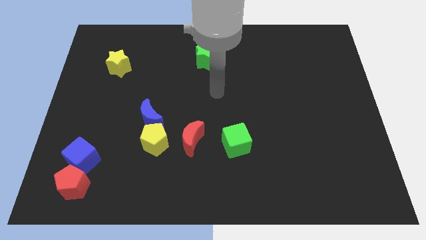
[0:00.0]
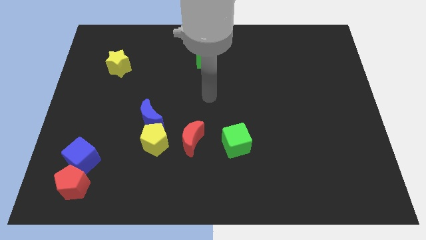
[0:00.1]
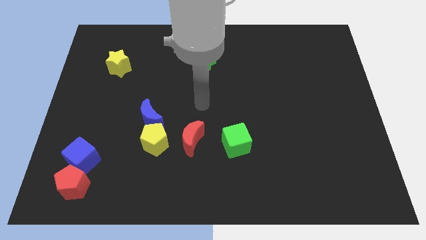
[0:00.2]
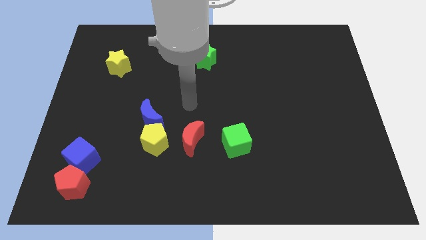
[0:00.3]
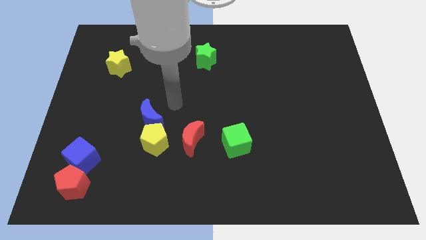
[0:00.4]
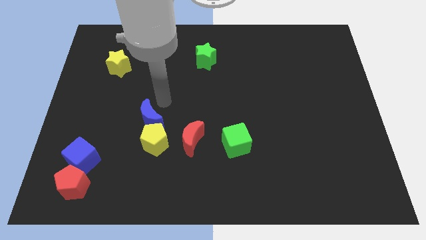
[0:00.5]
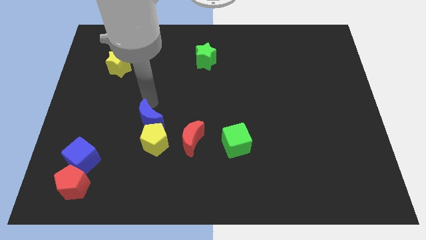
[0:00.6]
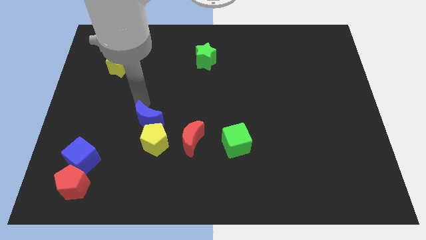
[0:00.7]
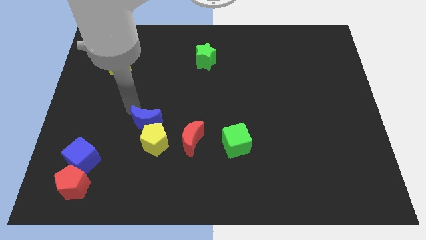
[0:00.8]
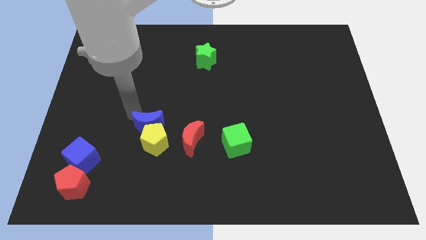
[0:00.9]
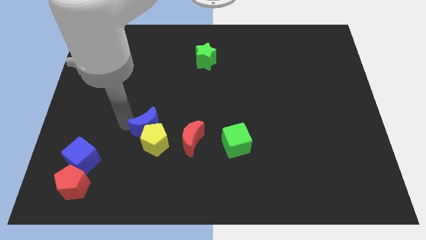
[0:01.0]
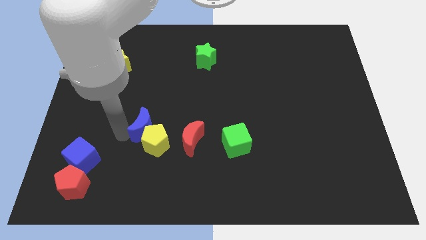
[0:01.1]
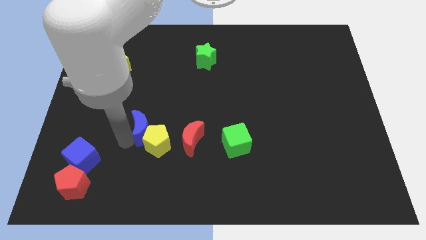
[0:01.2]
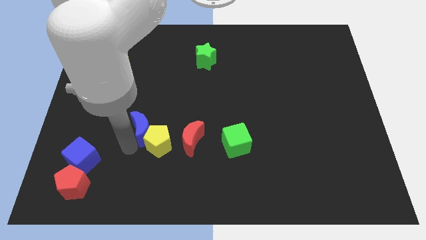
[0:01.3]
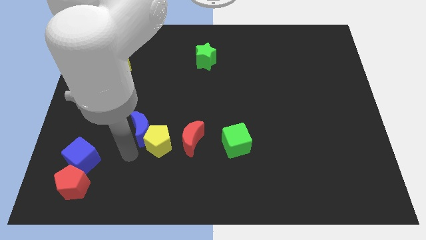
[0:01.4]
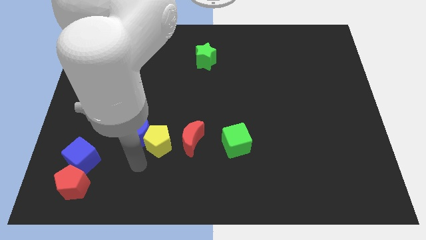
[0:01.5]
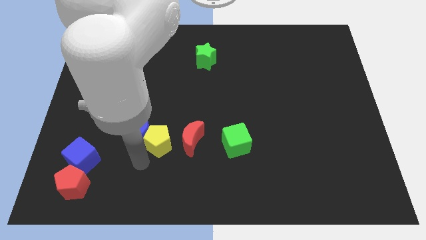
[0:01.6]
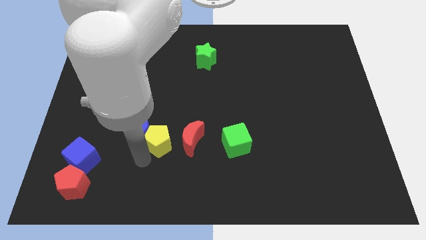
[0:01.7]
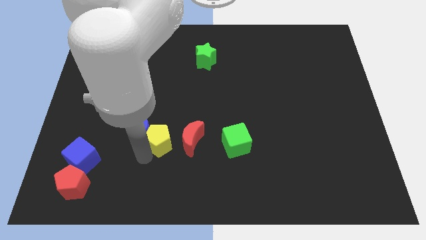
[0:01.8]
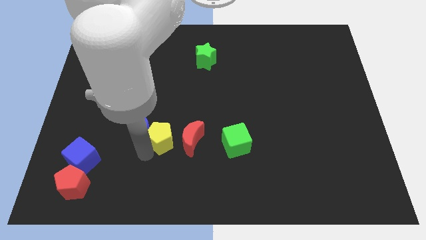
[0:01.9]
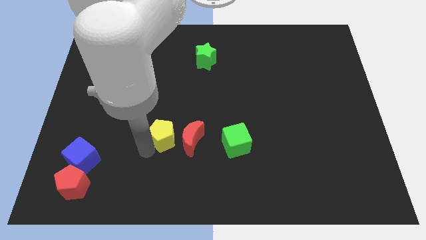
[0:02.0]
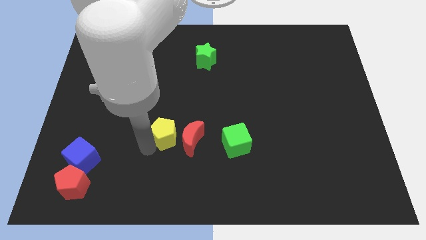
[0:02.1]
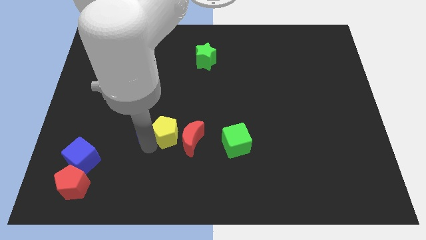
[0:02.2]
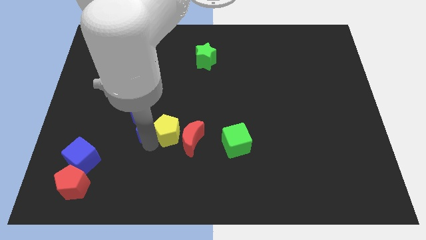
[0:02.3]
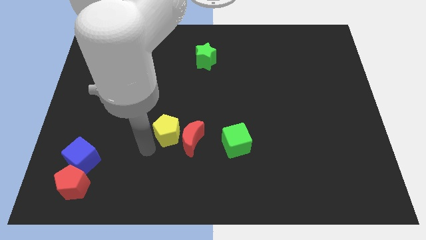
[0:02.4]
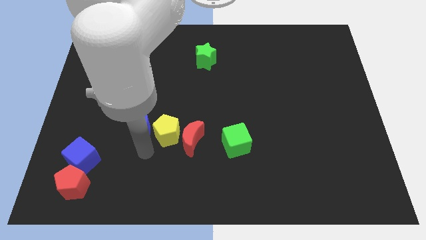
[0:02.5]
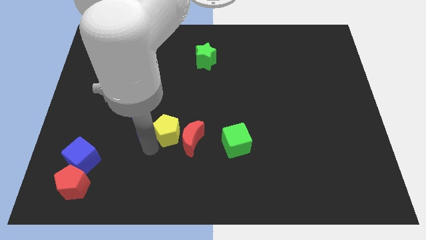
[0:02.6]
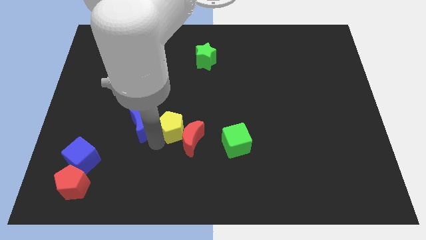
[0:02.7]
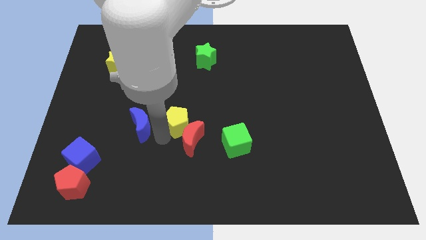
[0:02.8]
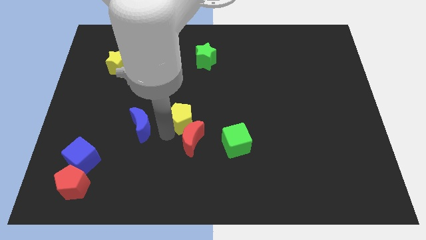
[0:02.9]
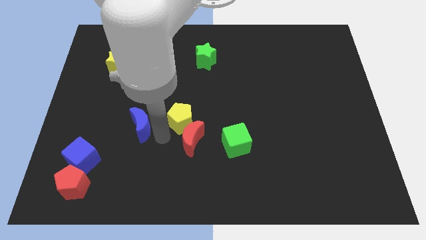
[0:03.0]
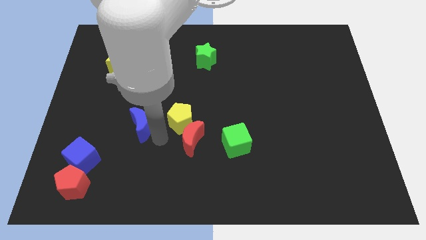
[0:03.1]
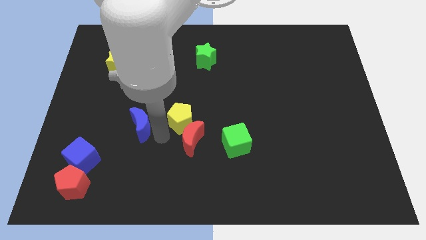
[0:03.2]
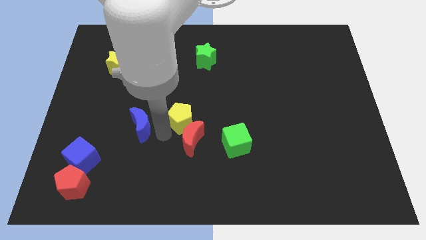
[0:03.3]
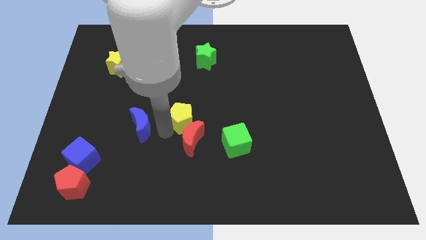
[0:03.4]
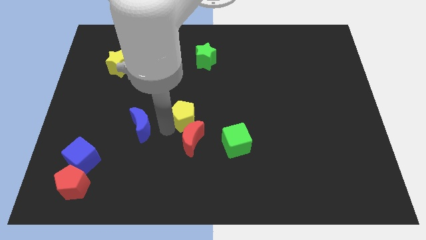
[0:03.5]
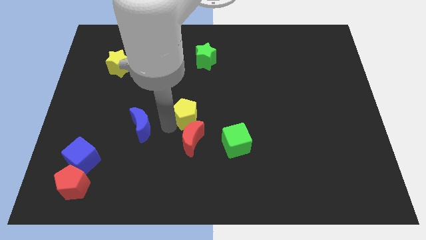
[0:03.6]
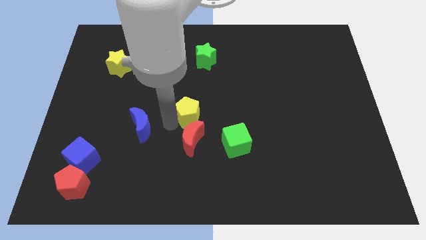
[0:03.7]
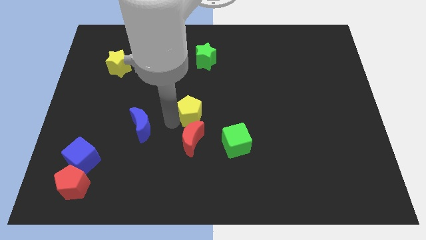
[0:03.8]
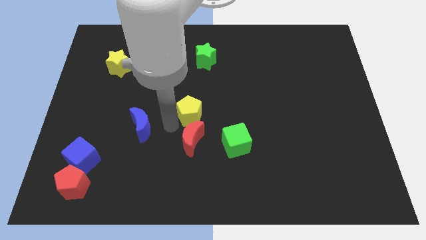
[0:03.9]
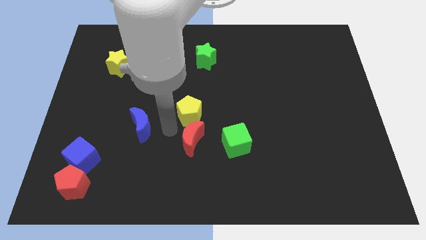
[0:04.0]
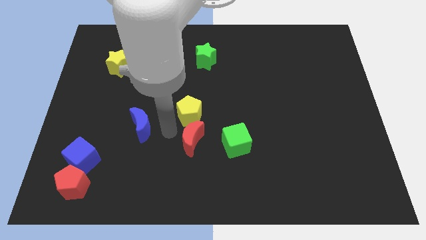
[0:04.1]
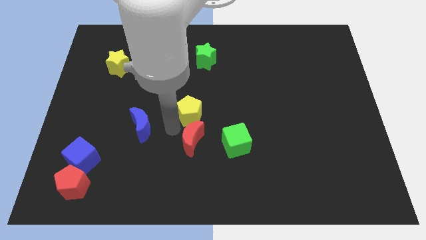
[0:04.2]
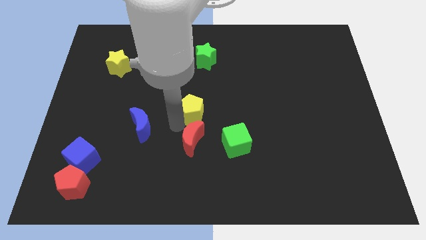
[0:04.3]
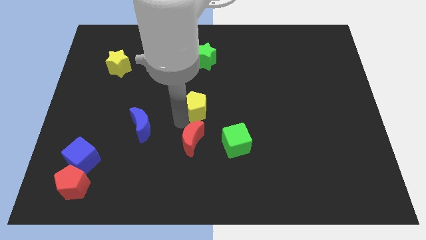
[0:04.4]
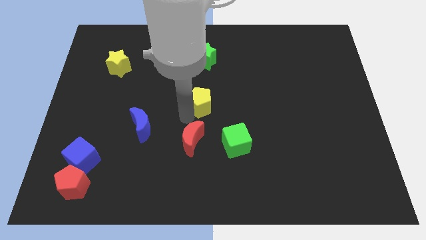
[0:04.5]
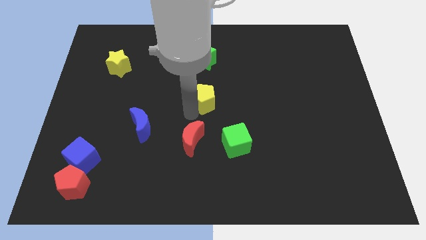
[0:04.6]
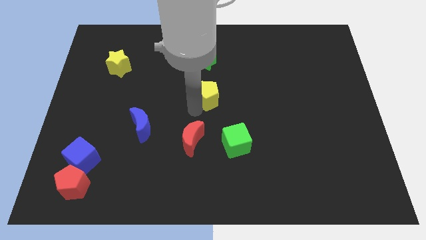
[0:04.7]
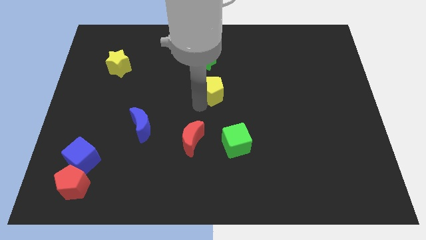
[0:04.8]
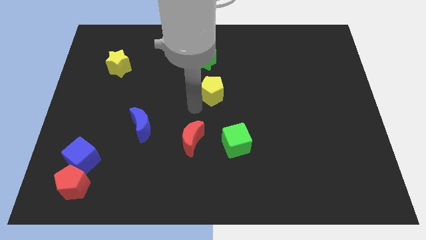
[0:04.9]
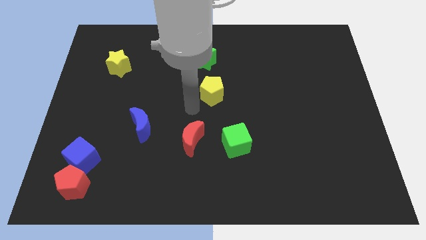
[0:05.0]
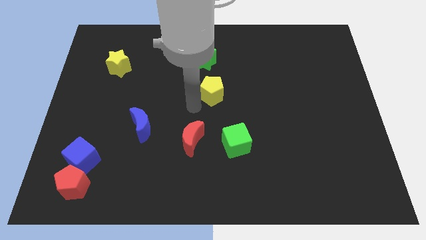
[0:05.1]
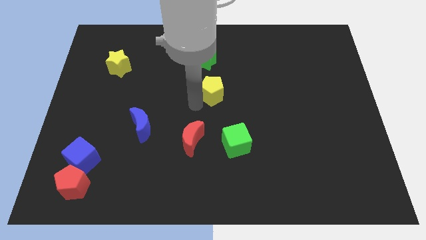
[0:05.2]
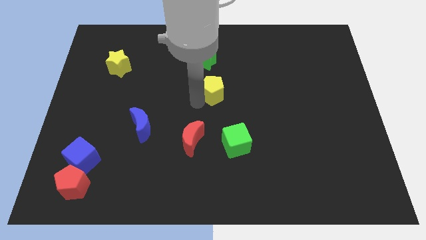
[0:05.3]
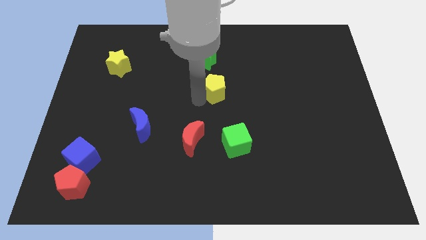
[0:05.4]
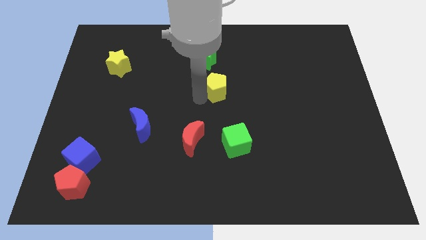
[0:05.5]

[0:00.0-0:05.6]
push the yellow pentagon up and then to the right

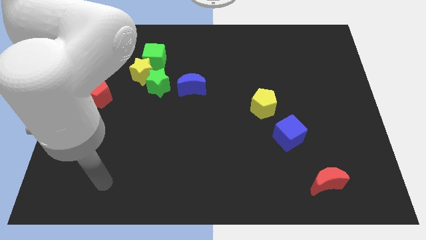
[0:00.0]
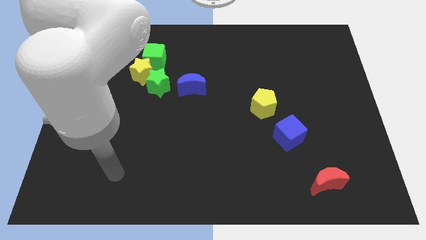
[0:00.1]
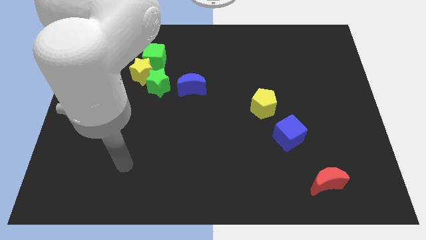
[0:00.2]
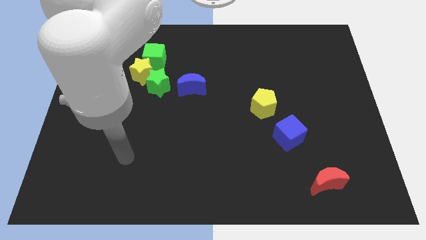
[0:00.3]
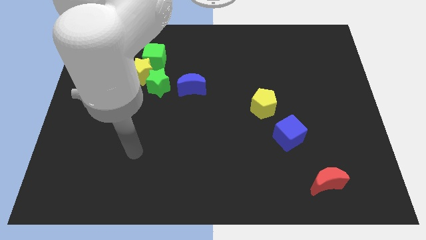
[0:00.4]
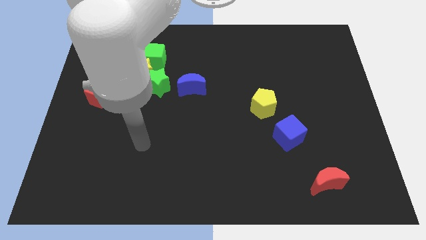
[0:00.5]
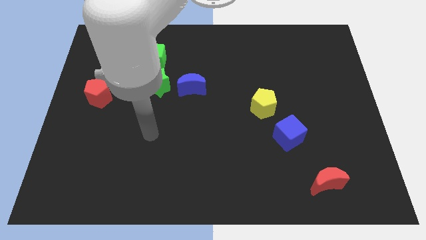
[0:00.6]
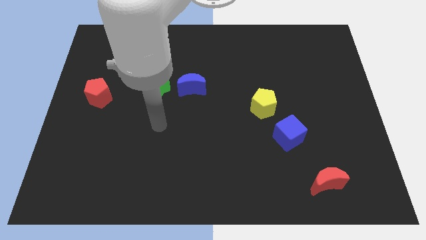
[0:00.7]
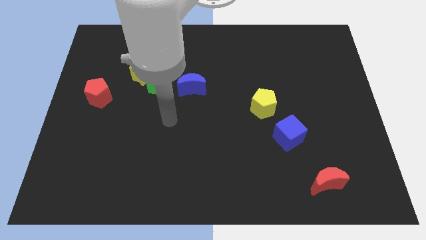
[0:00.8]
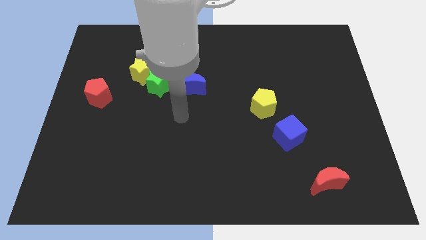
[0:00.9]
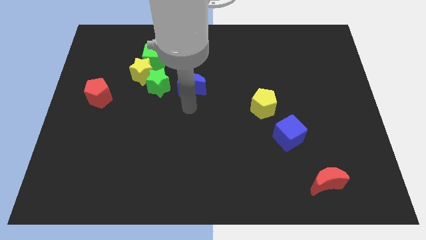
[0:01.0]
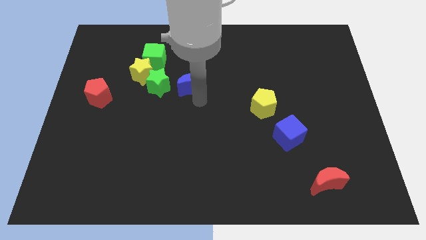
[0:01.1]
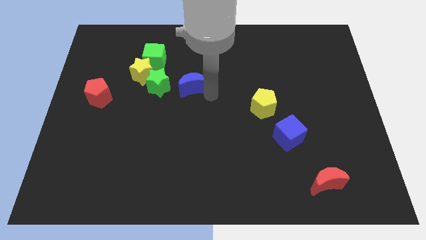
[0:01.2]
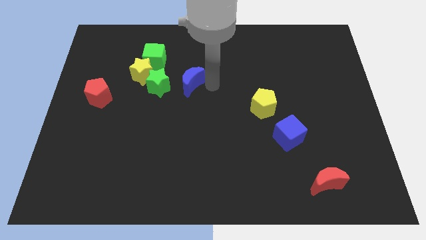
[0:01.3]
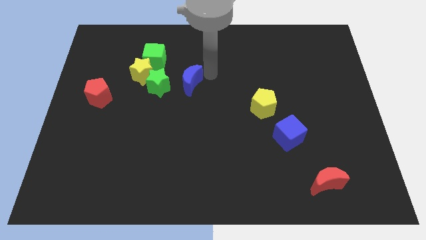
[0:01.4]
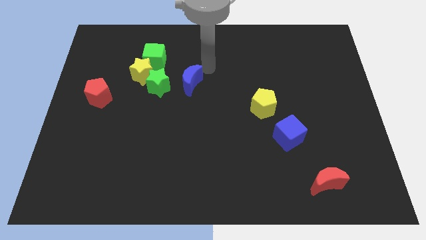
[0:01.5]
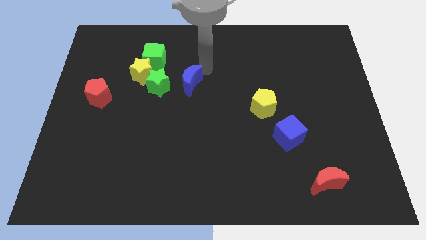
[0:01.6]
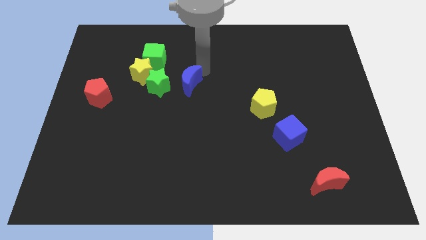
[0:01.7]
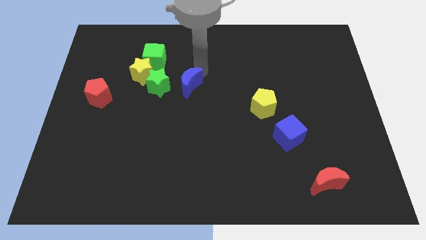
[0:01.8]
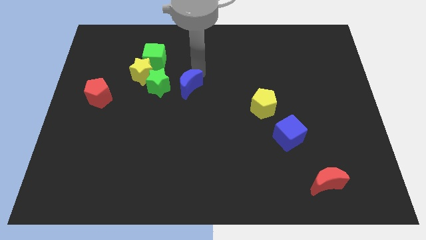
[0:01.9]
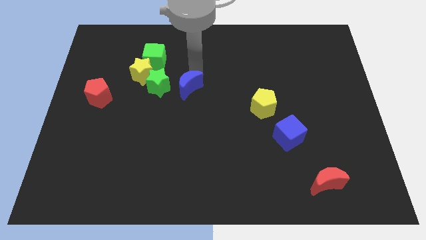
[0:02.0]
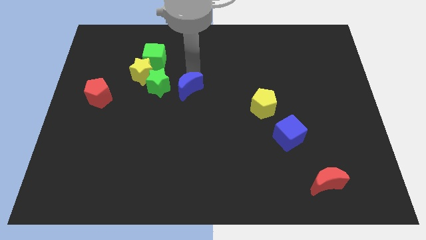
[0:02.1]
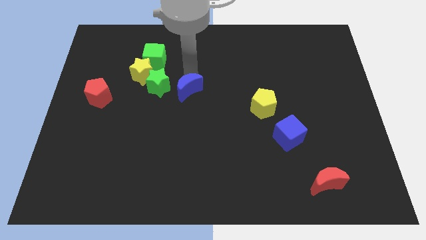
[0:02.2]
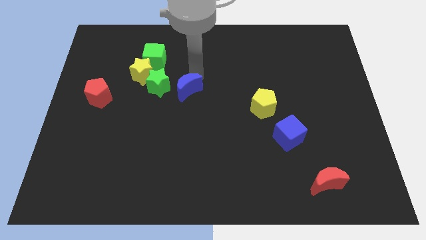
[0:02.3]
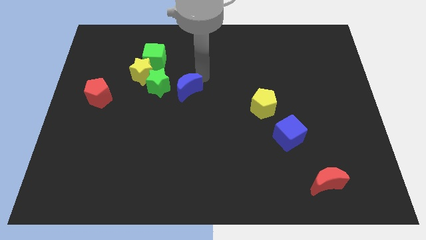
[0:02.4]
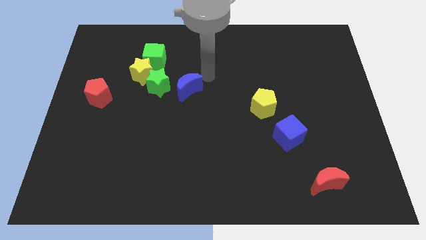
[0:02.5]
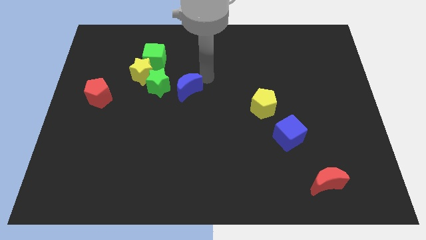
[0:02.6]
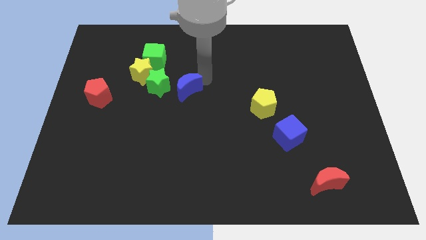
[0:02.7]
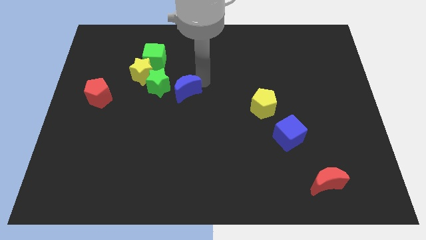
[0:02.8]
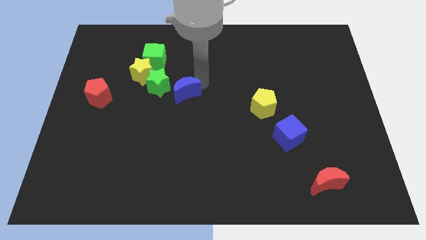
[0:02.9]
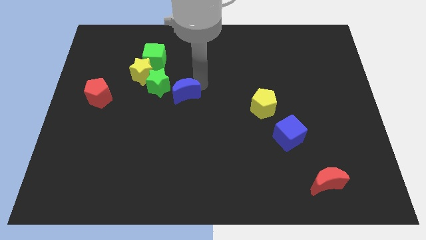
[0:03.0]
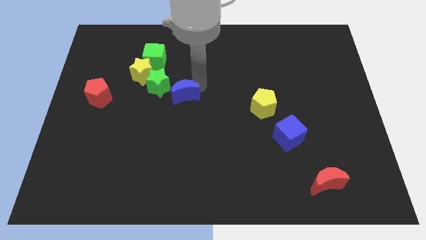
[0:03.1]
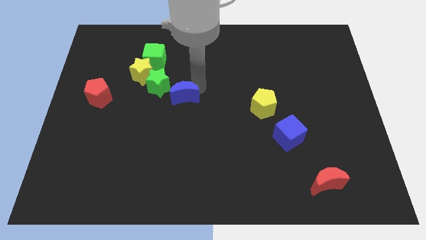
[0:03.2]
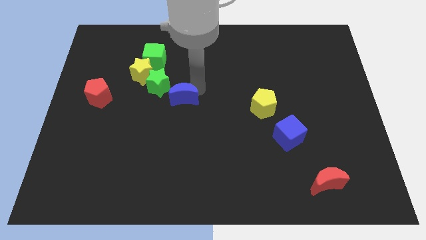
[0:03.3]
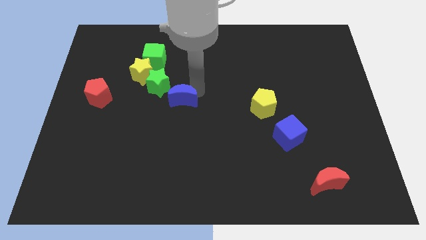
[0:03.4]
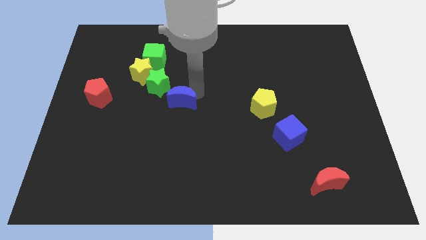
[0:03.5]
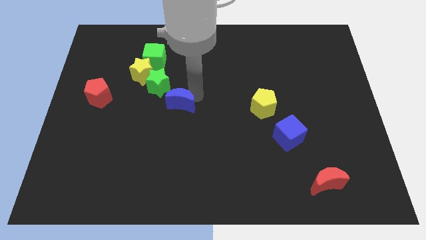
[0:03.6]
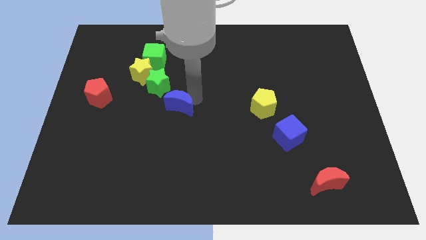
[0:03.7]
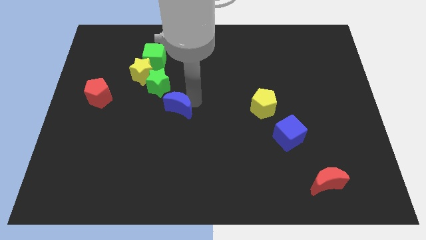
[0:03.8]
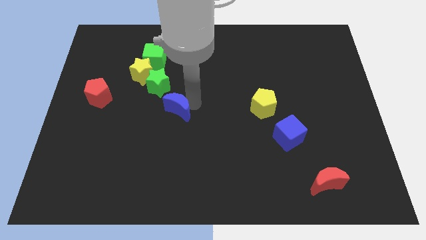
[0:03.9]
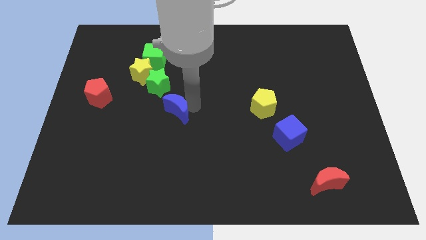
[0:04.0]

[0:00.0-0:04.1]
slide the blue moon somewhat downwards and then left
